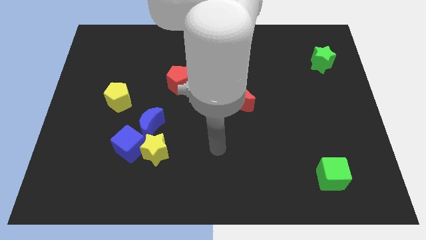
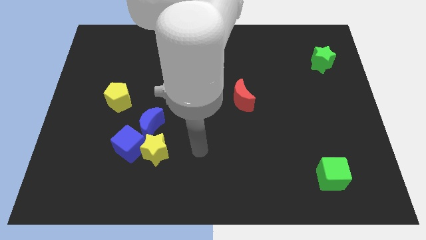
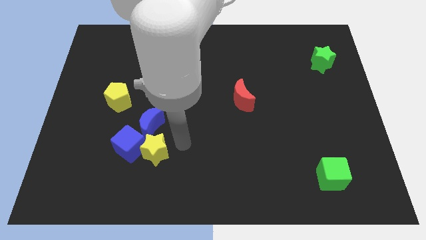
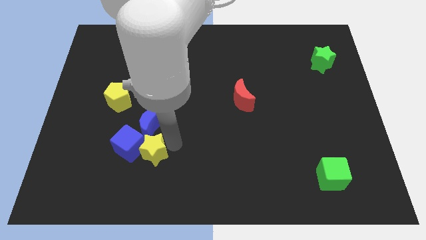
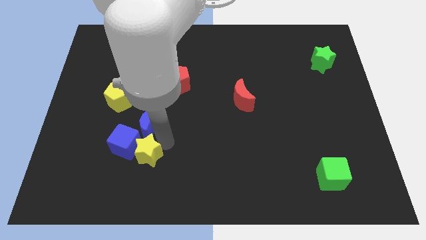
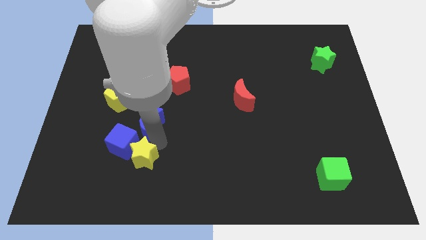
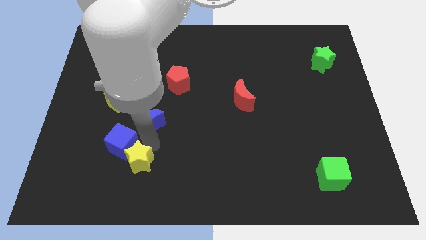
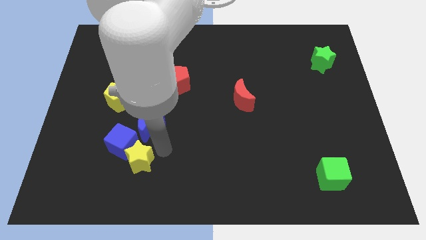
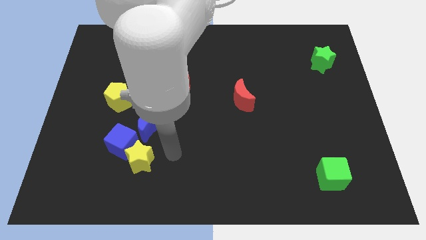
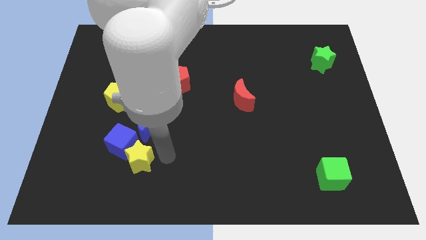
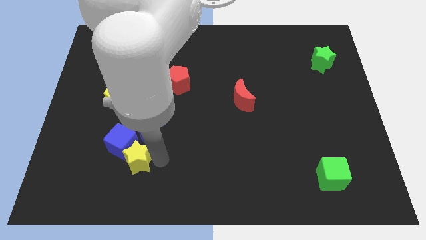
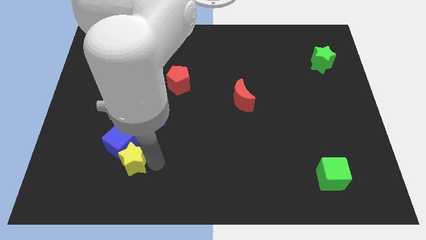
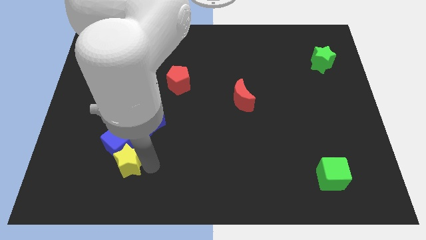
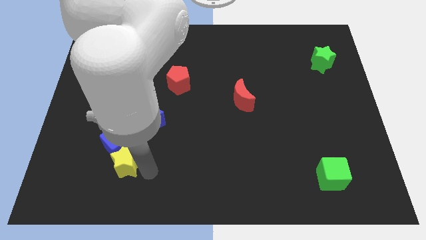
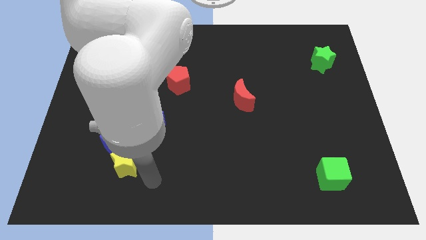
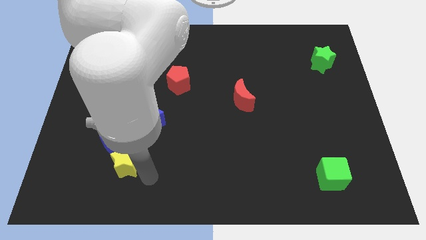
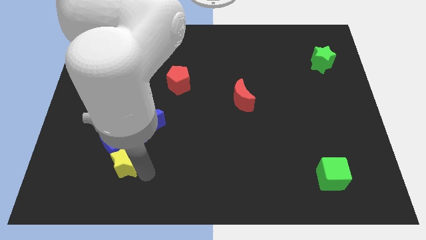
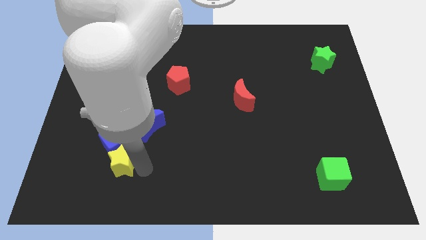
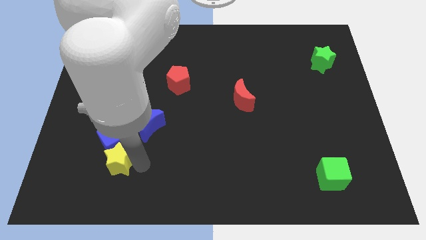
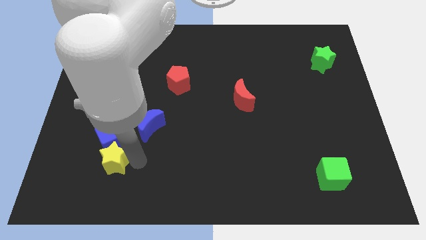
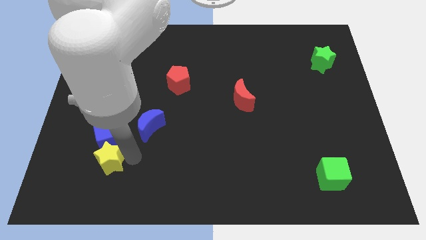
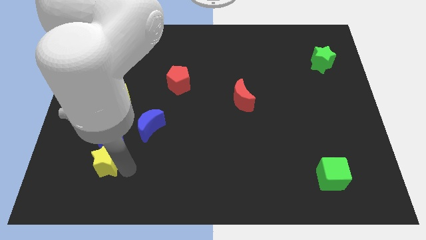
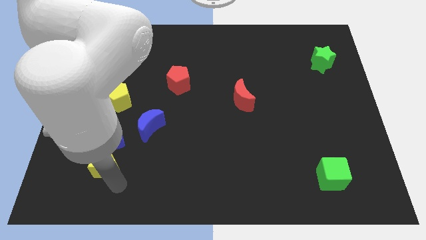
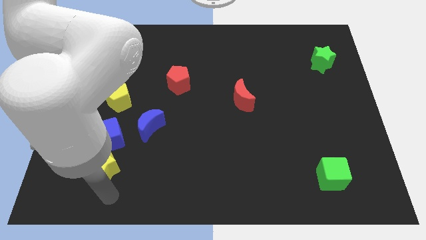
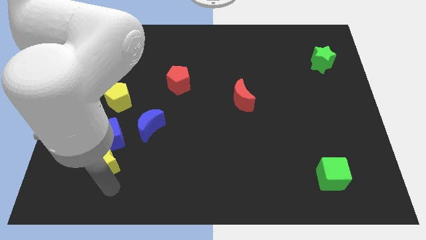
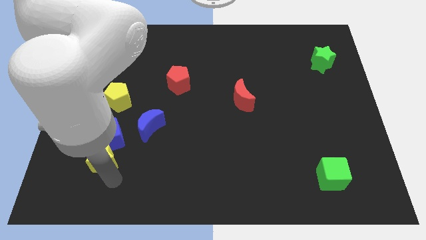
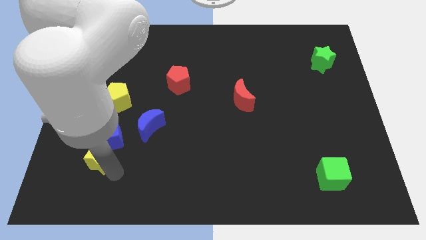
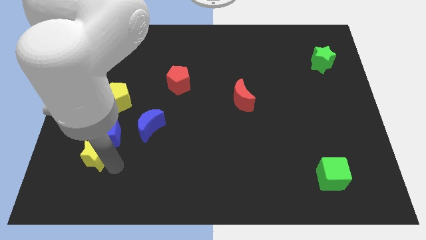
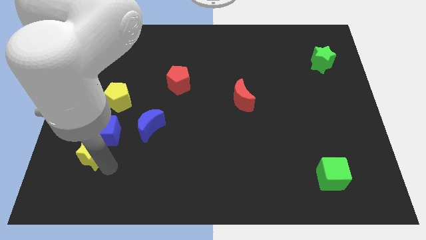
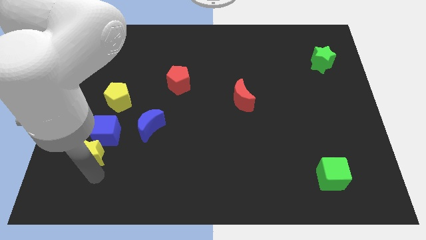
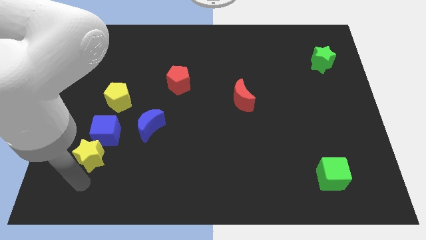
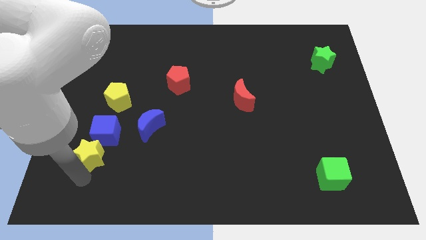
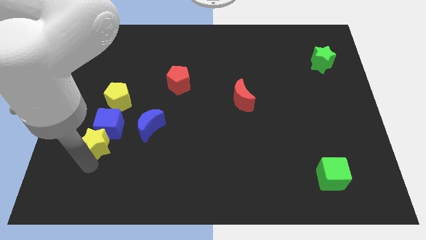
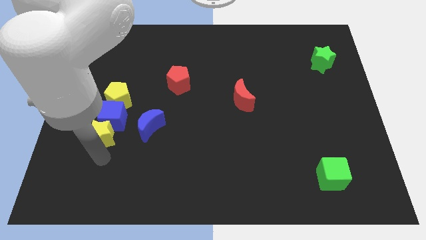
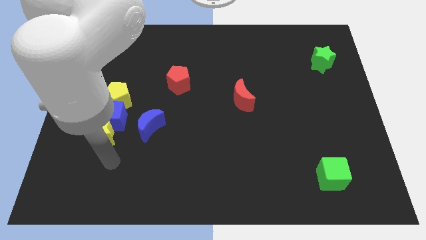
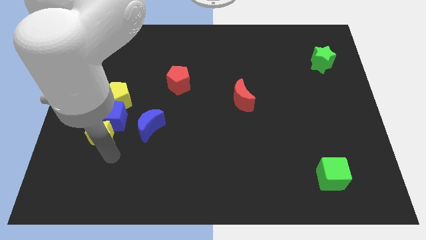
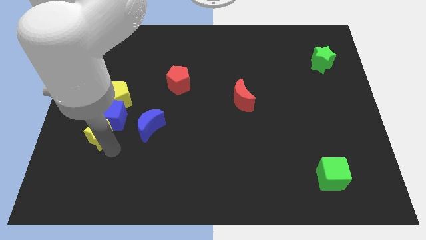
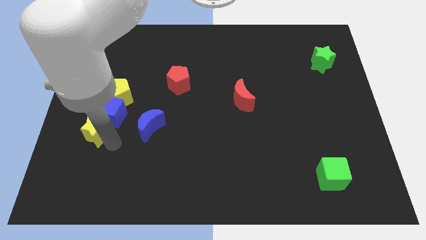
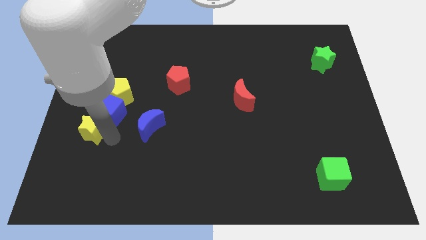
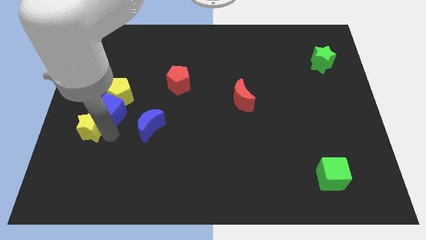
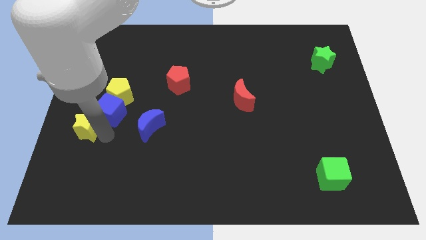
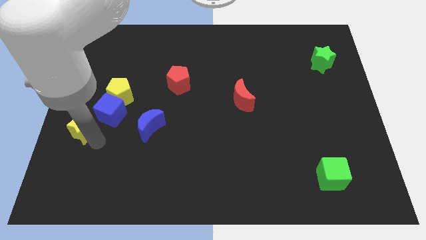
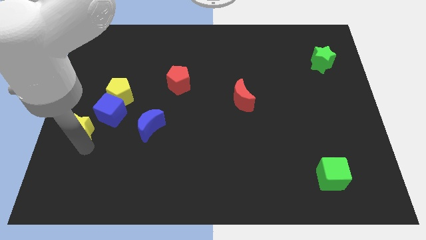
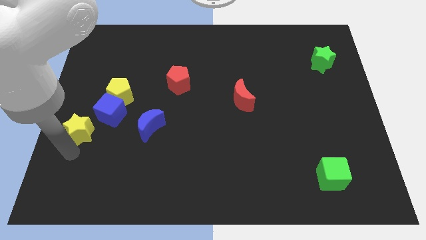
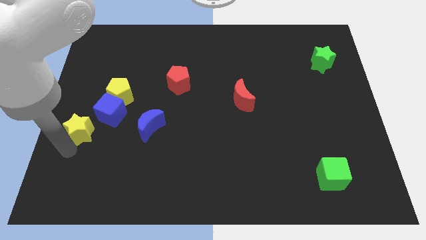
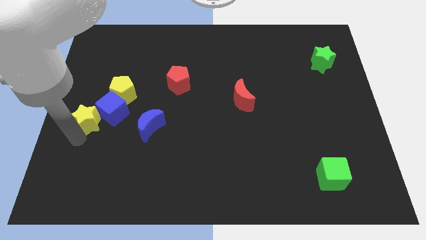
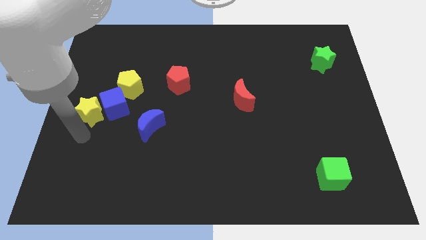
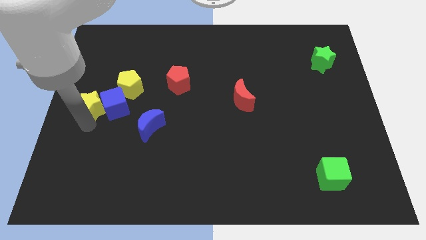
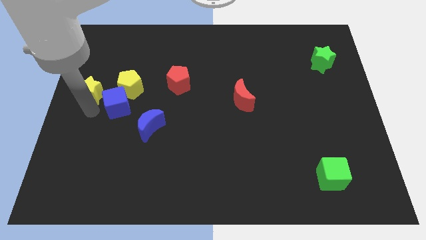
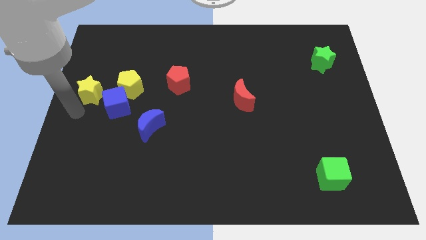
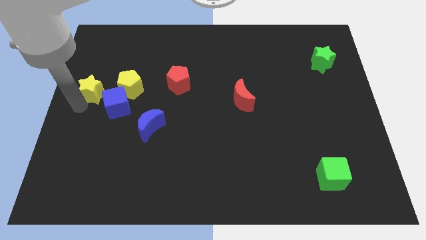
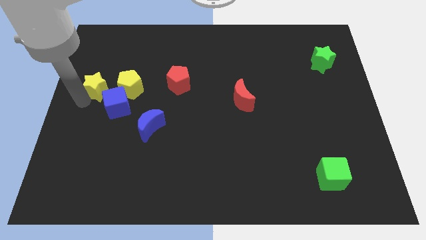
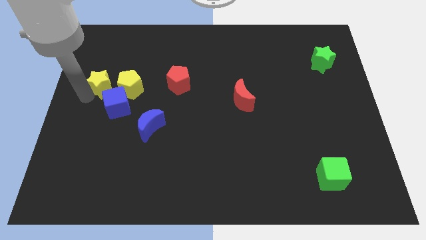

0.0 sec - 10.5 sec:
move the yellow star to the top left of the yellow pentagon

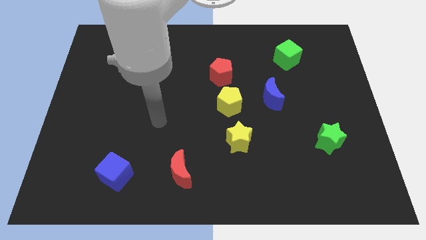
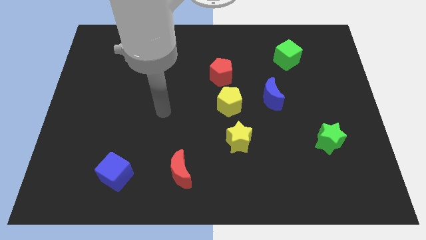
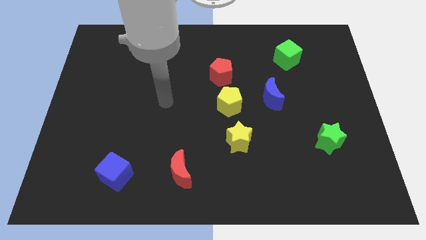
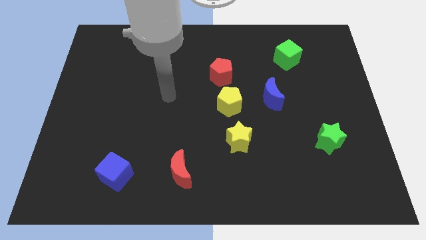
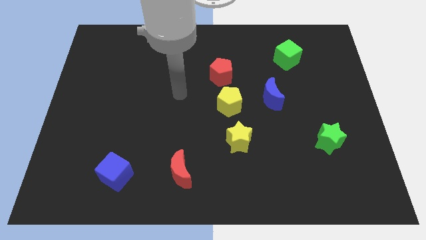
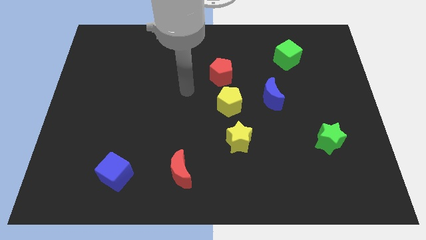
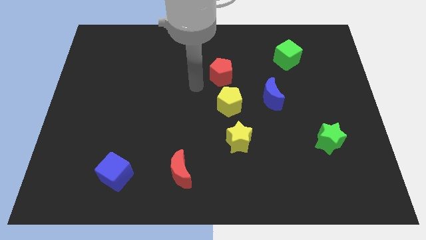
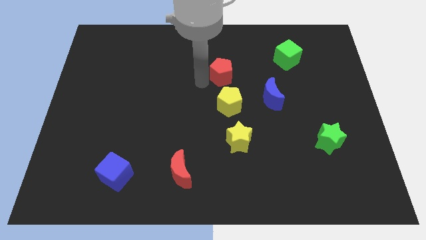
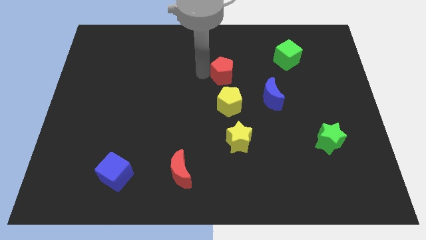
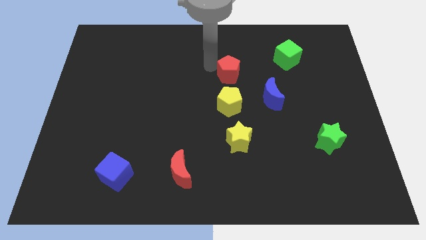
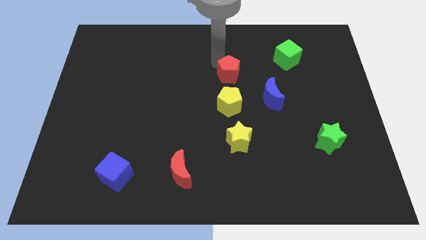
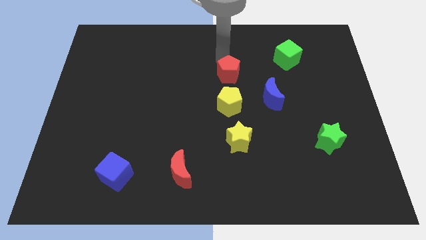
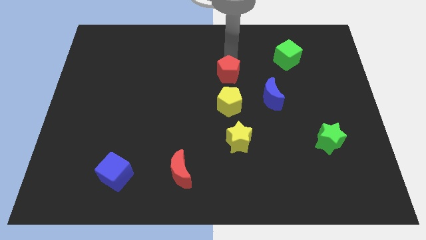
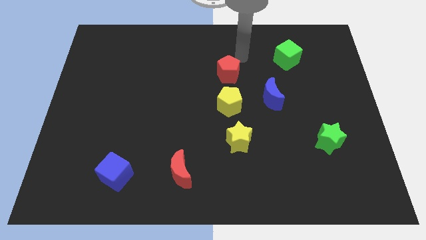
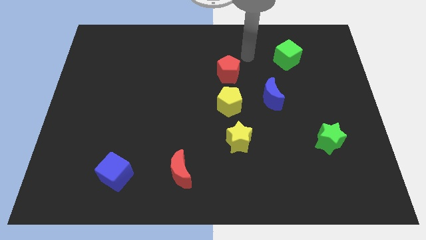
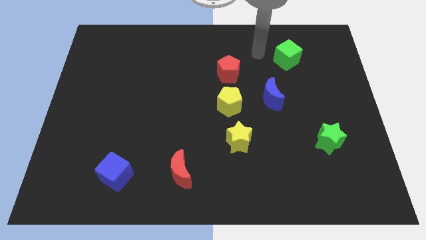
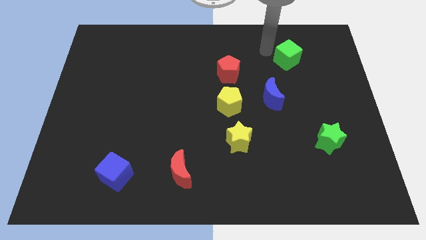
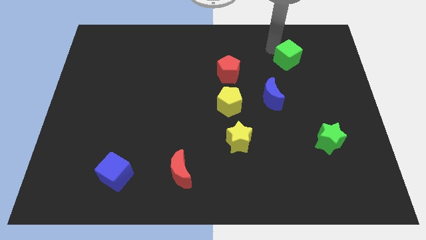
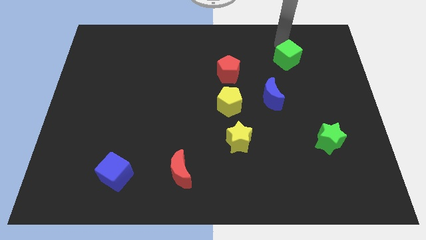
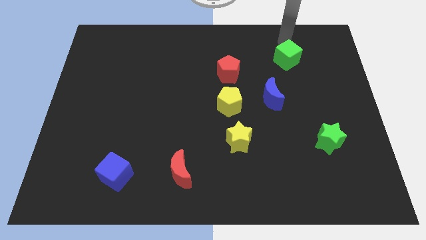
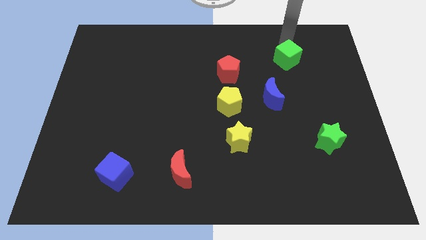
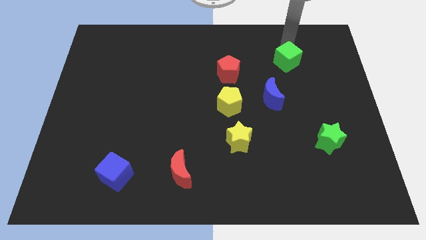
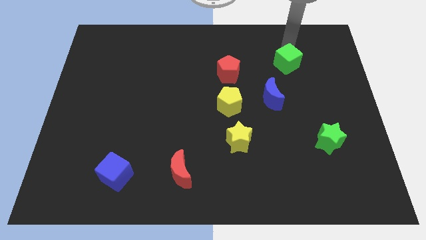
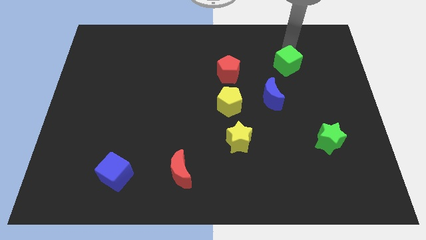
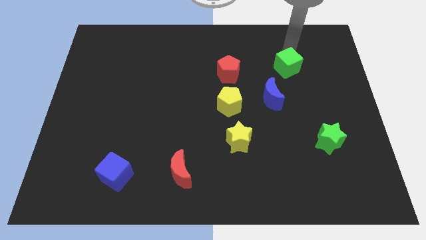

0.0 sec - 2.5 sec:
put the green cube to the top right of the blue moon
